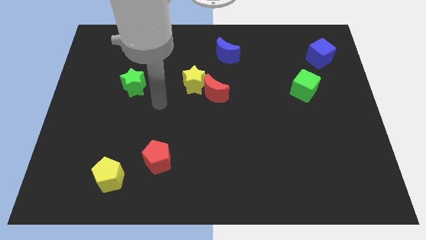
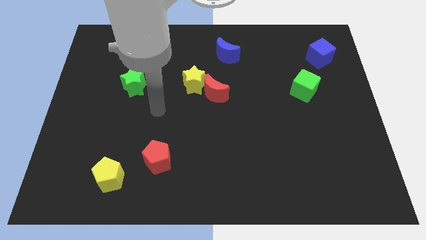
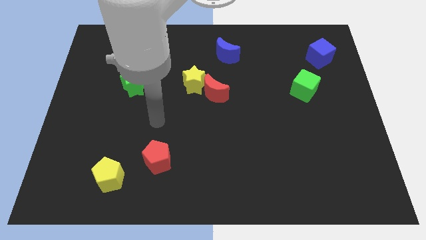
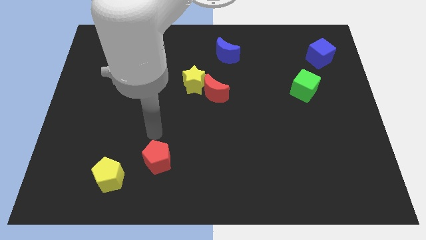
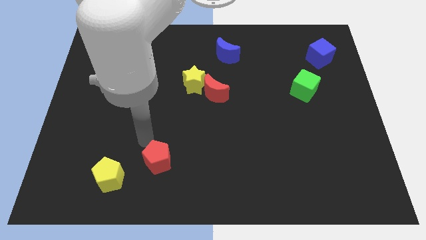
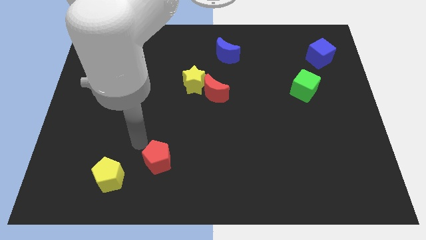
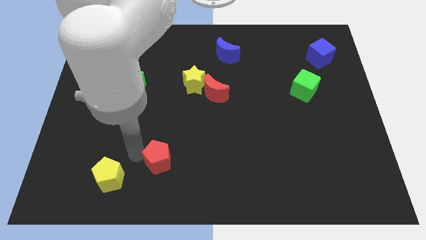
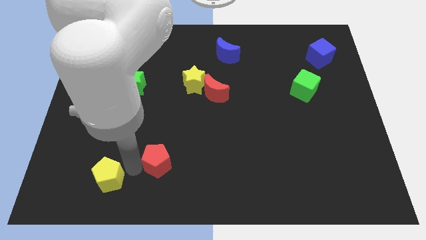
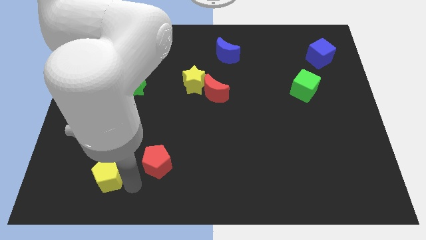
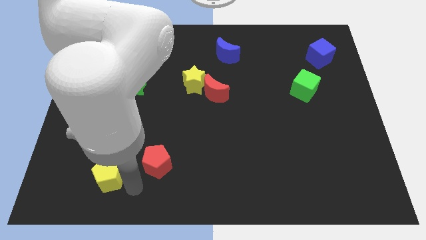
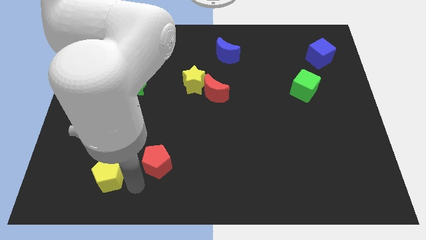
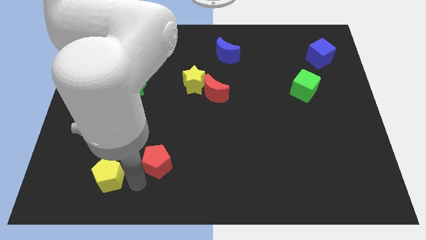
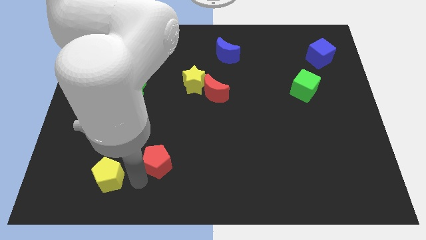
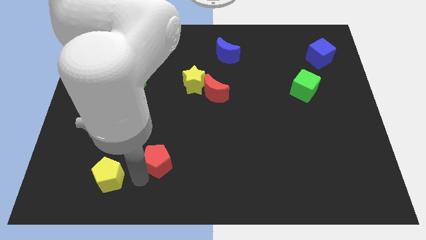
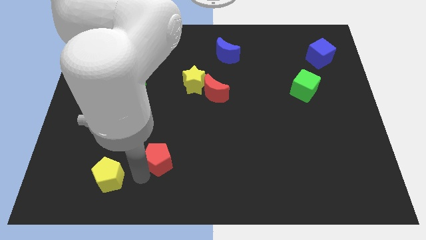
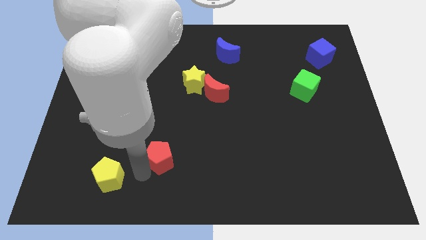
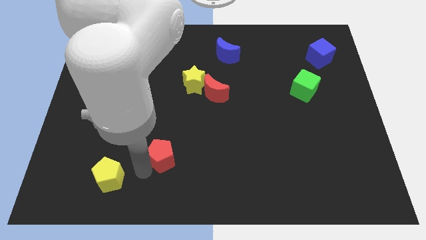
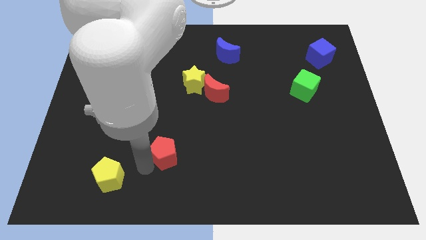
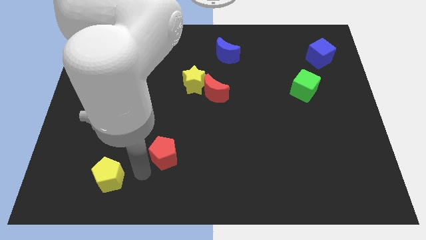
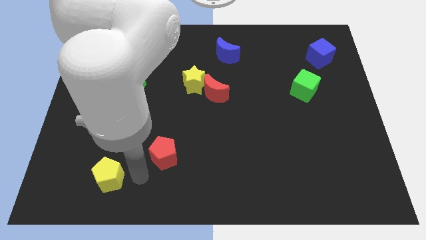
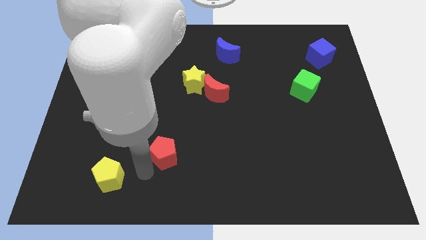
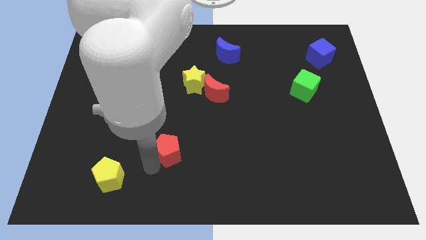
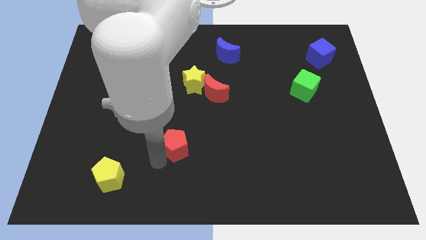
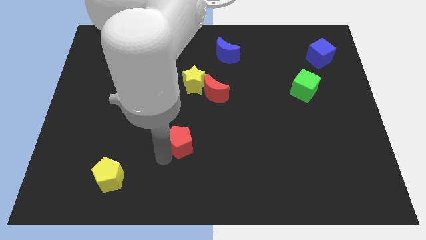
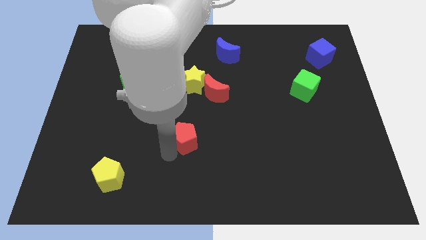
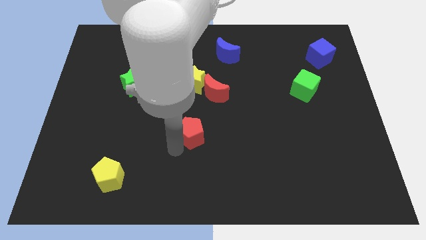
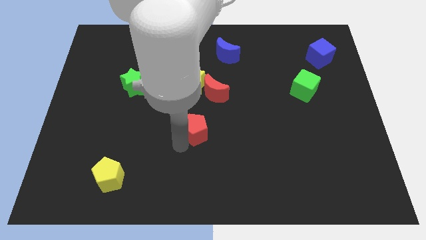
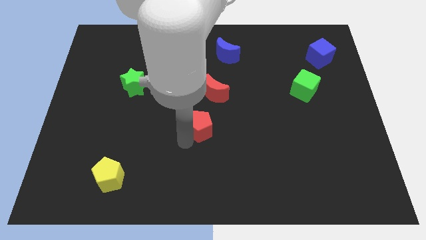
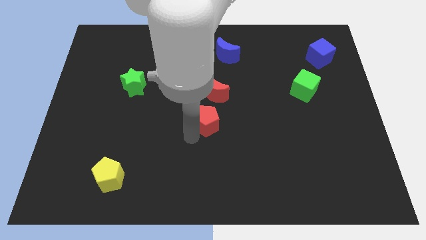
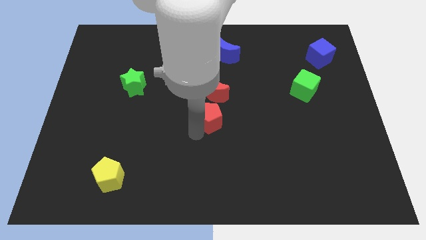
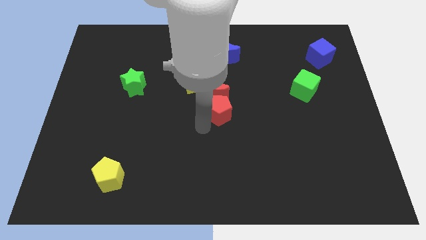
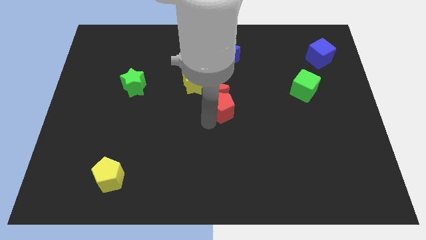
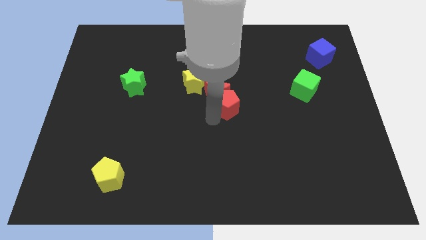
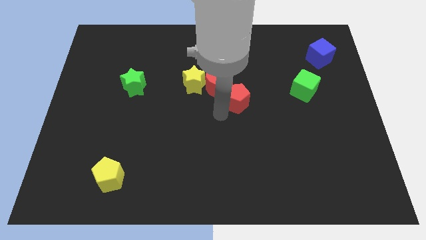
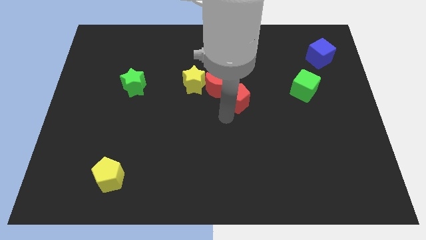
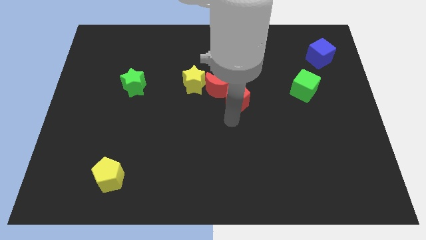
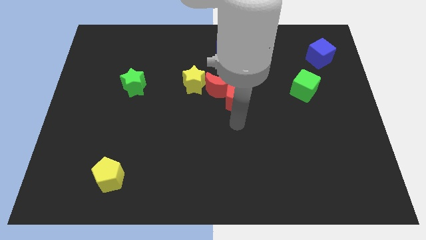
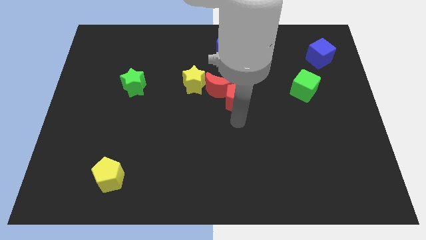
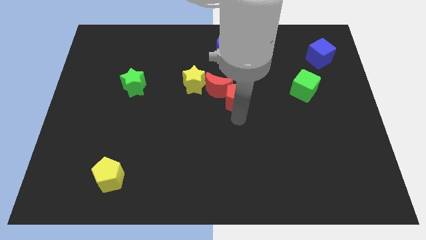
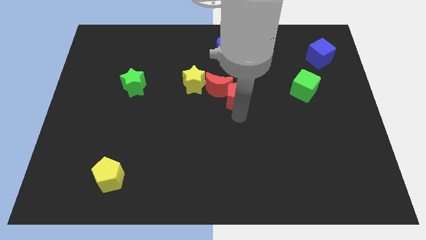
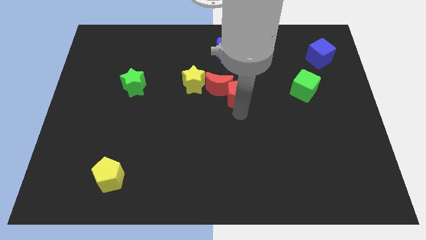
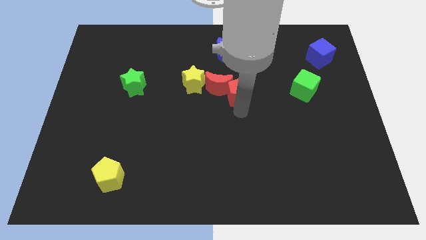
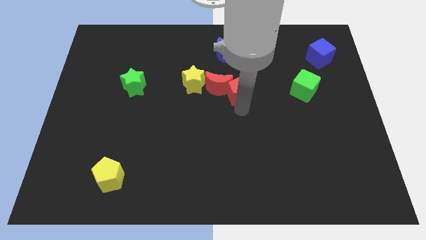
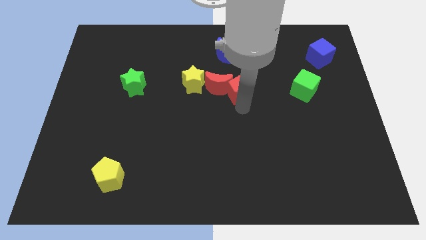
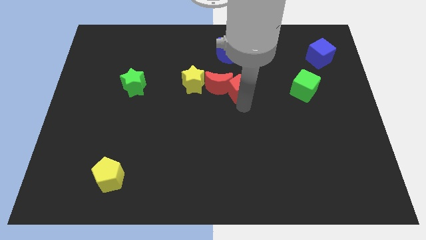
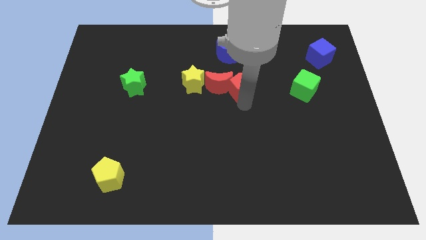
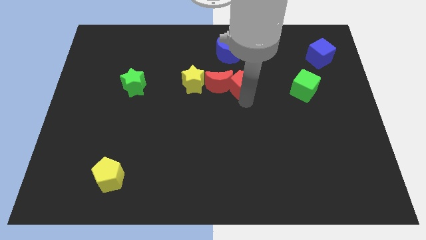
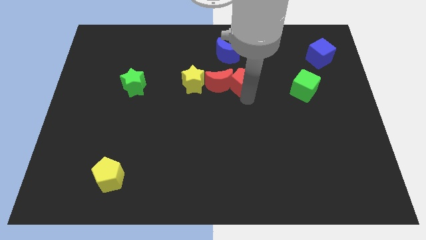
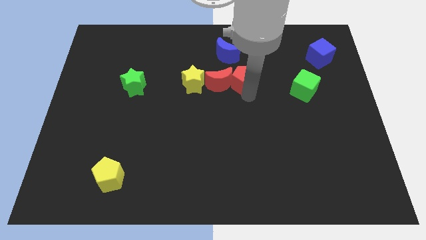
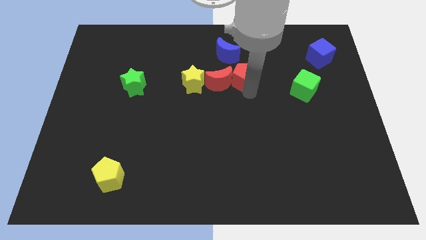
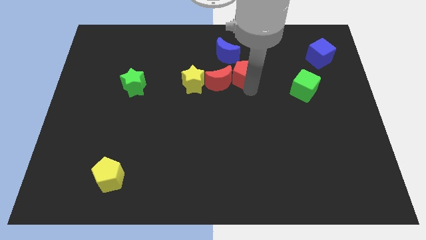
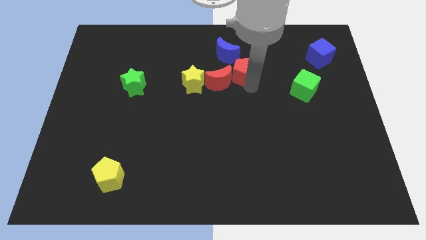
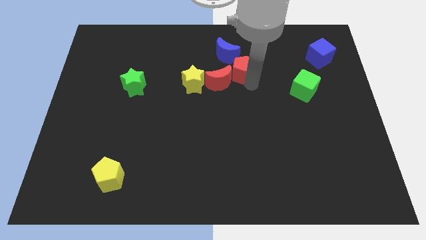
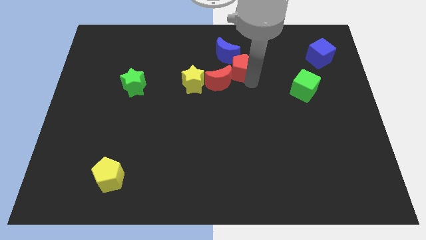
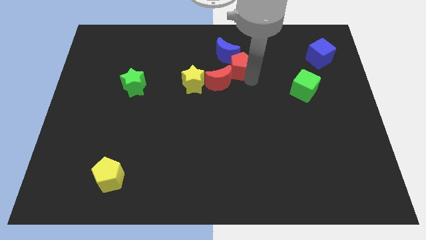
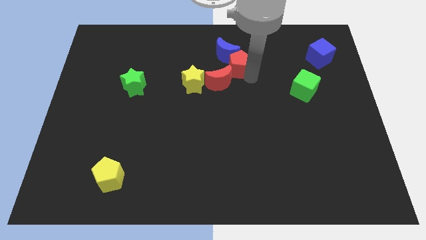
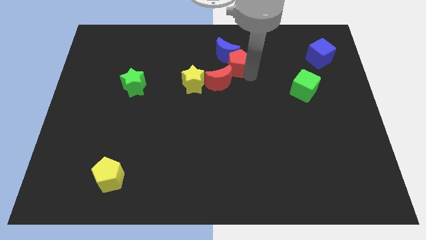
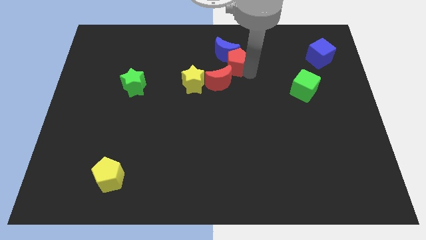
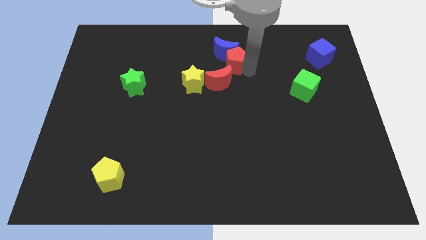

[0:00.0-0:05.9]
put the red pentagon to the top right side of the yellow star

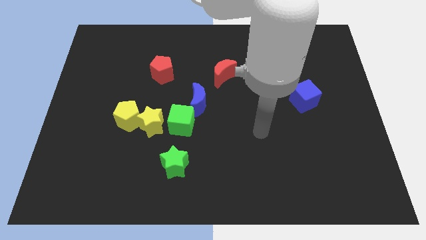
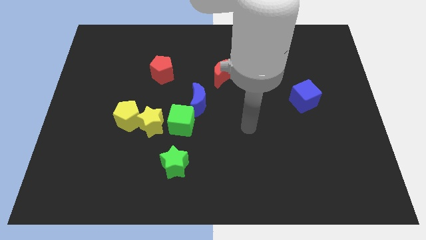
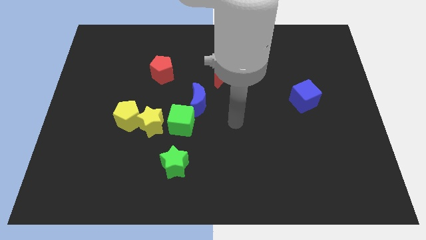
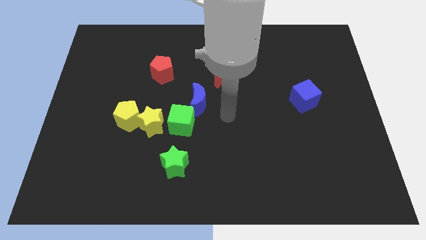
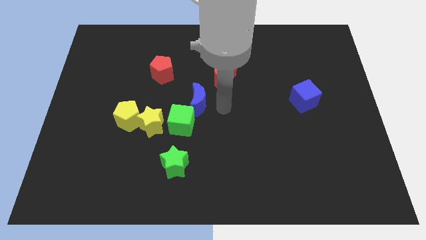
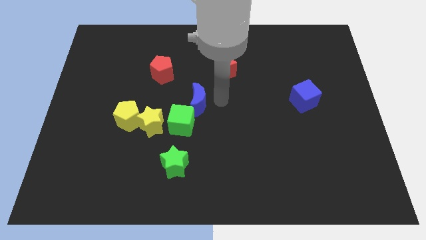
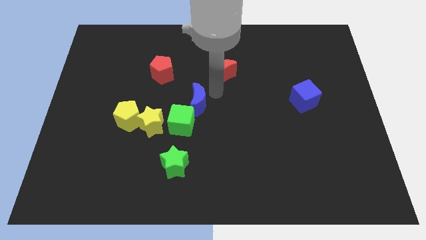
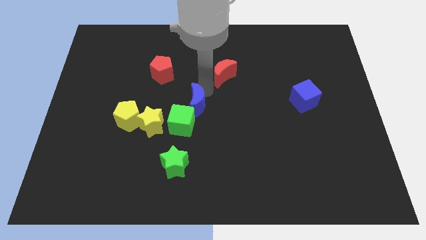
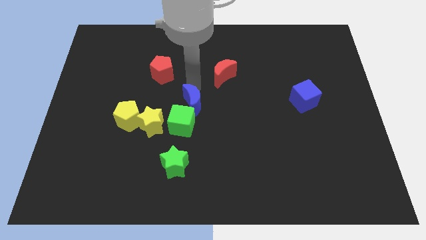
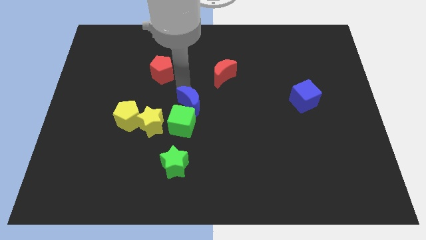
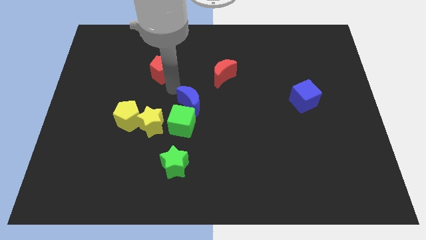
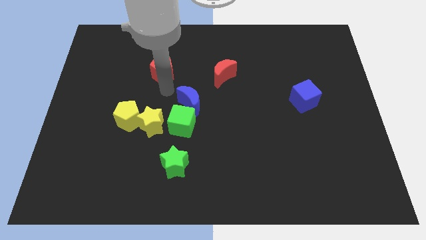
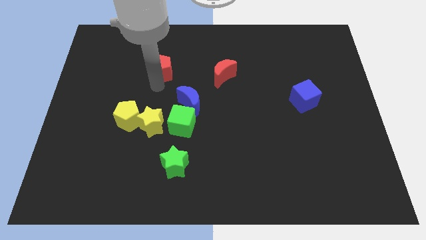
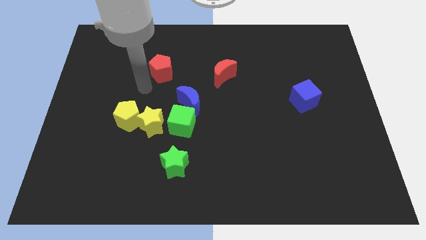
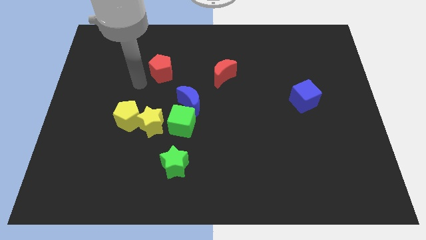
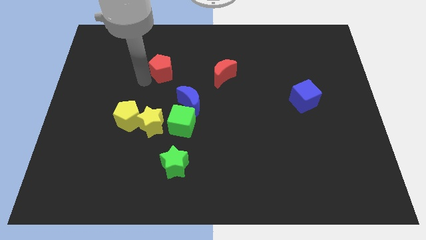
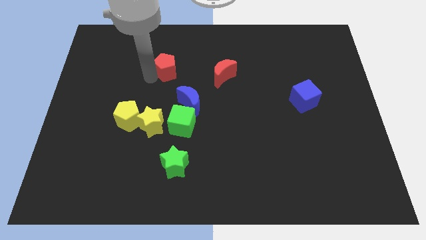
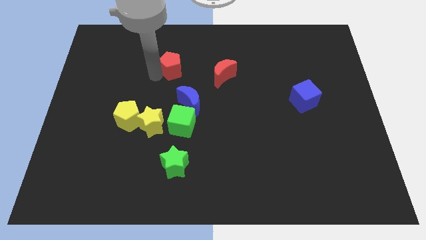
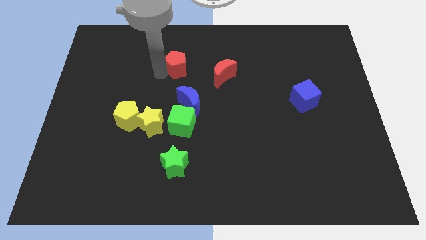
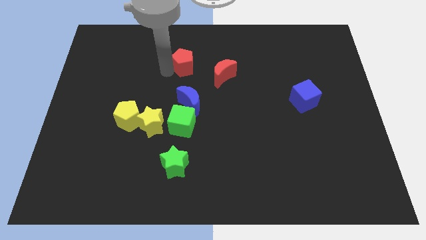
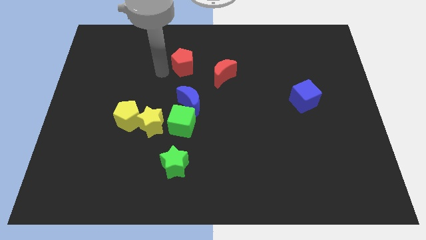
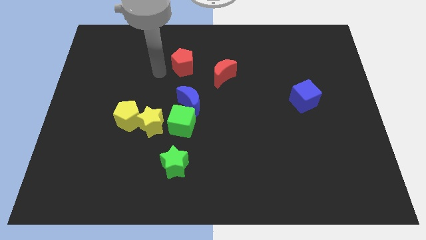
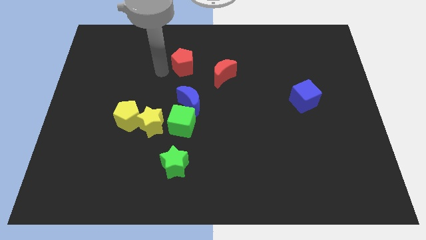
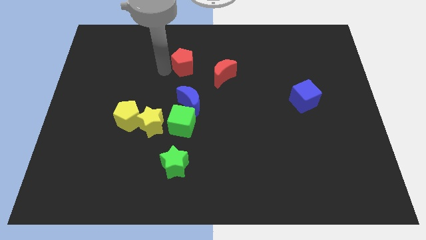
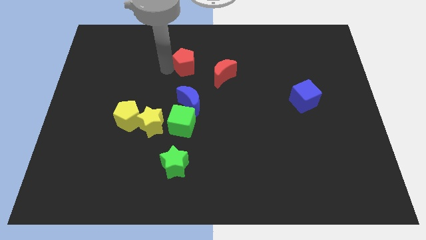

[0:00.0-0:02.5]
move the red pentagon to the top left of the red moon
